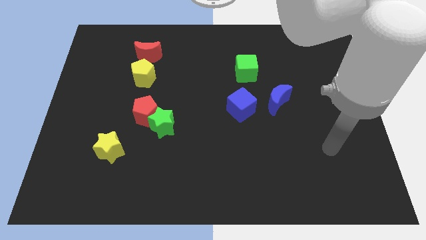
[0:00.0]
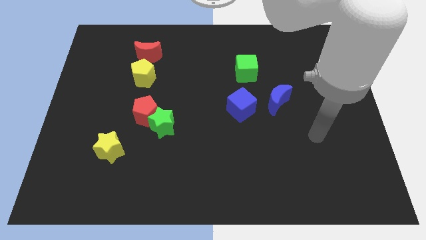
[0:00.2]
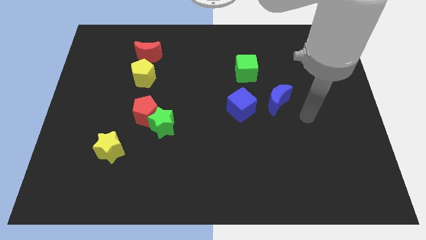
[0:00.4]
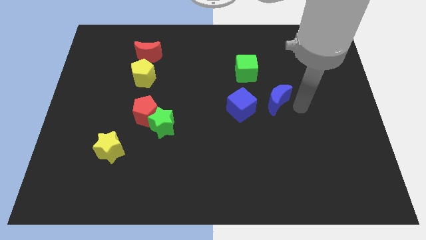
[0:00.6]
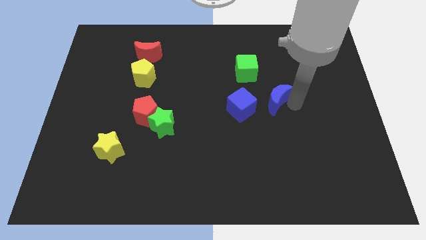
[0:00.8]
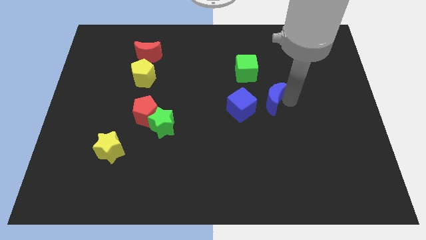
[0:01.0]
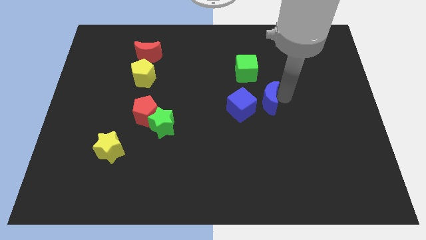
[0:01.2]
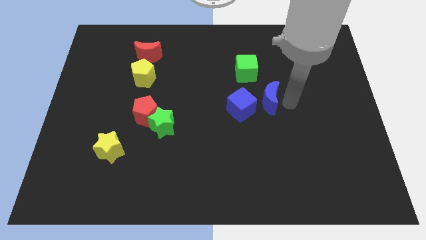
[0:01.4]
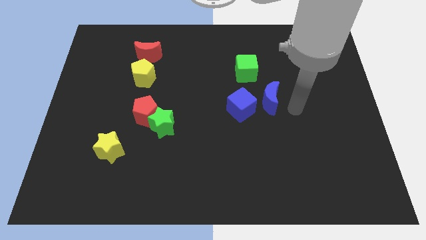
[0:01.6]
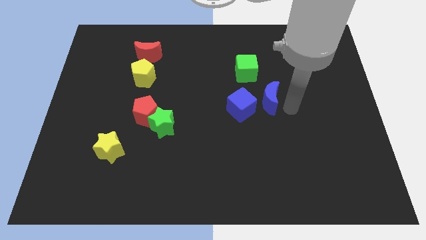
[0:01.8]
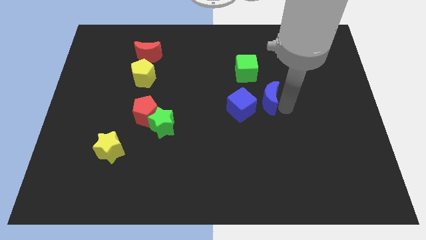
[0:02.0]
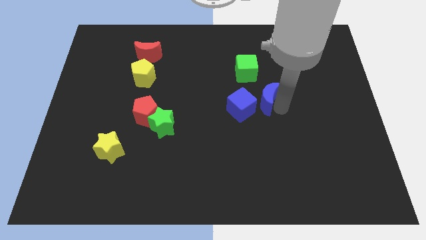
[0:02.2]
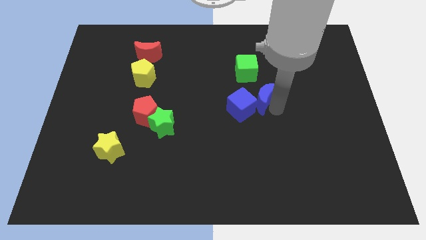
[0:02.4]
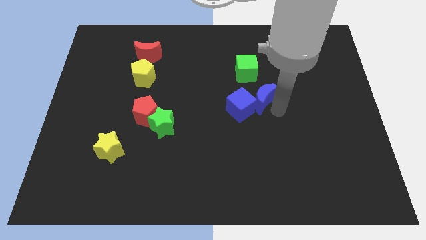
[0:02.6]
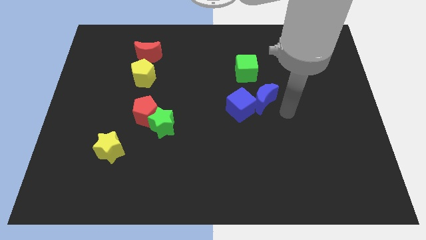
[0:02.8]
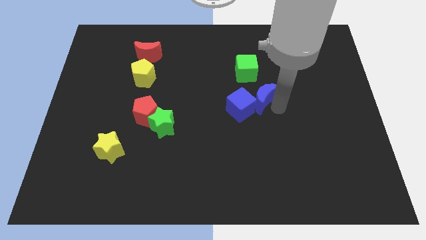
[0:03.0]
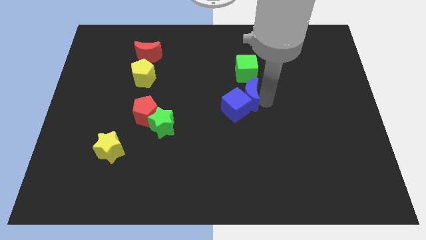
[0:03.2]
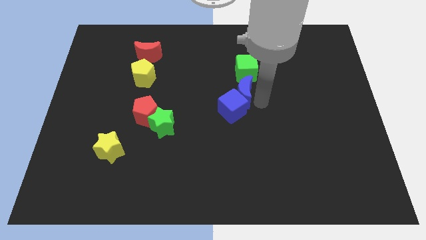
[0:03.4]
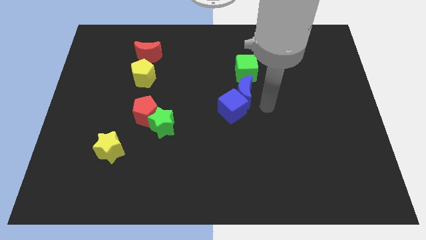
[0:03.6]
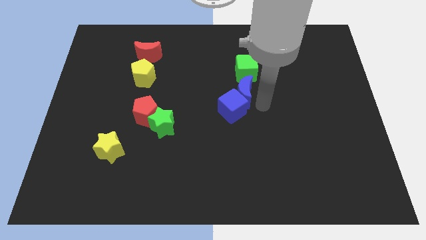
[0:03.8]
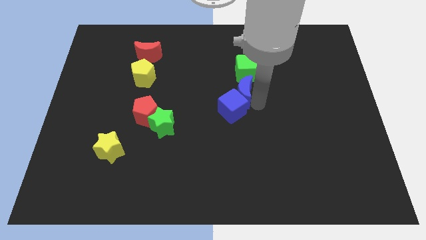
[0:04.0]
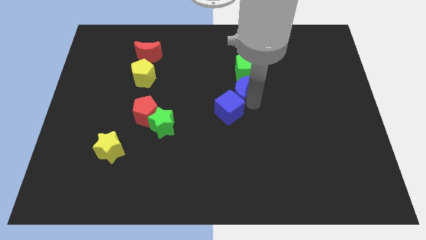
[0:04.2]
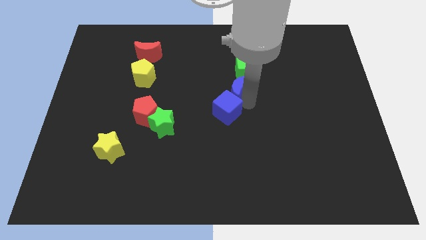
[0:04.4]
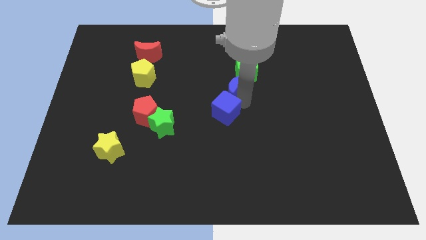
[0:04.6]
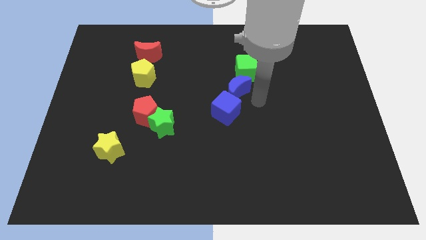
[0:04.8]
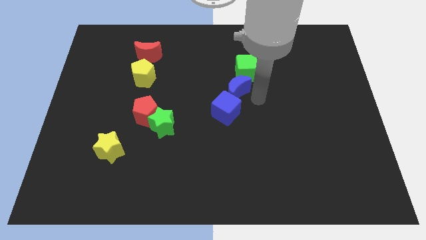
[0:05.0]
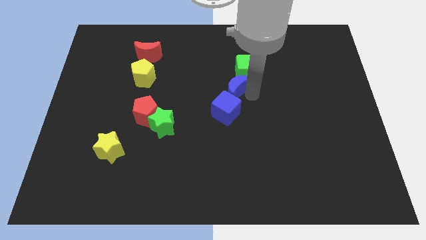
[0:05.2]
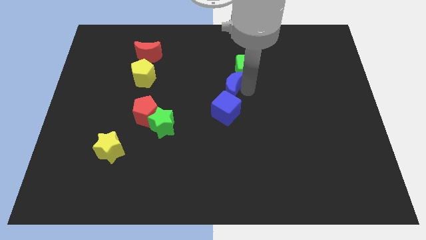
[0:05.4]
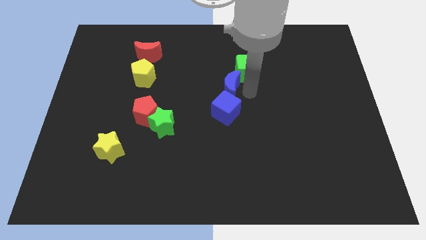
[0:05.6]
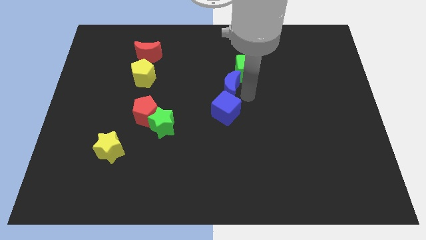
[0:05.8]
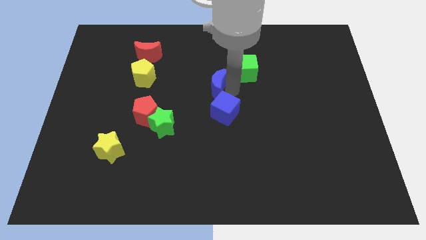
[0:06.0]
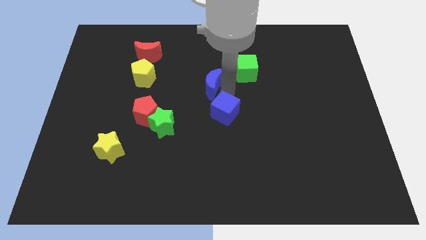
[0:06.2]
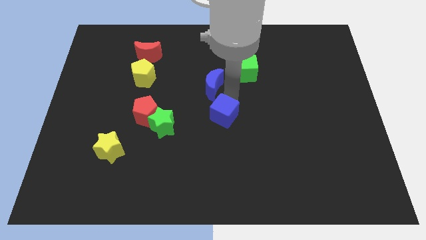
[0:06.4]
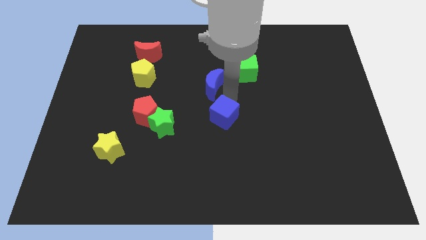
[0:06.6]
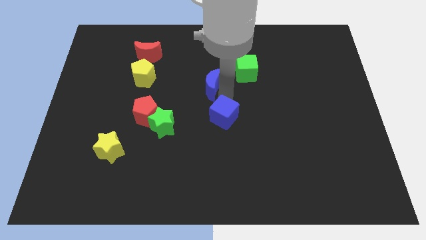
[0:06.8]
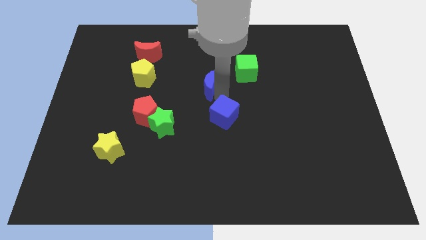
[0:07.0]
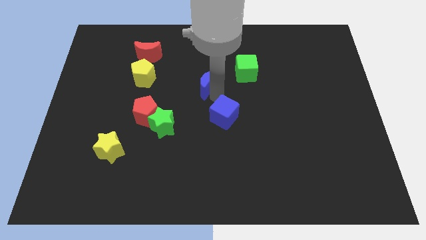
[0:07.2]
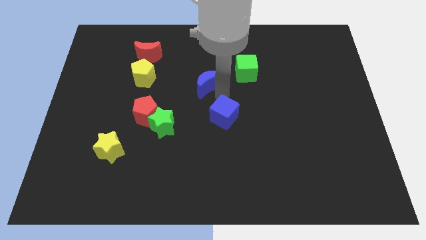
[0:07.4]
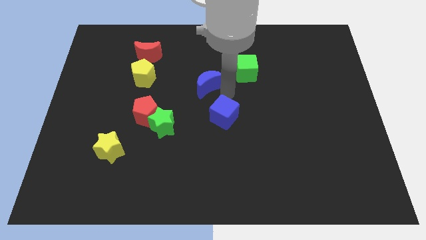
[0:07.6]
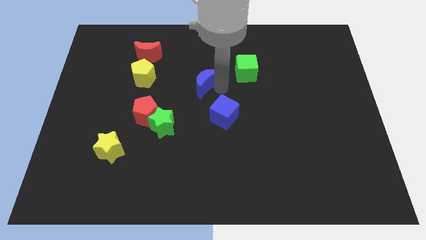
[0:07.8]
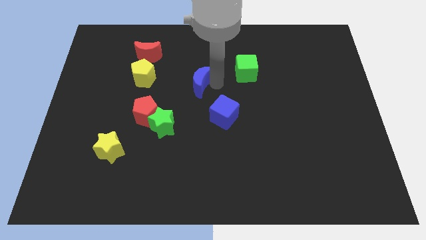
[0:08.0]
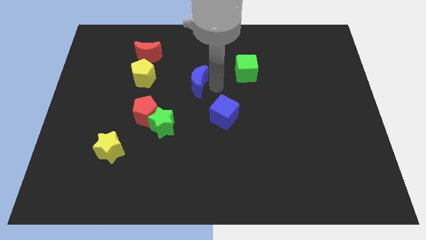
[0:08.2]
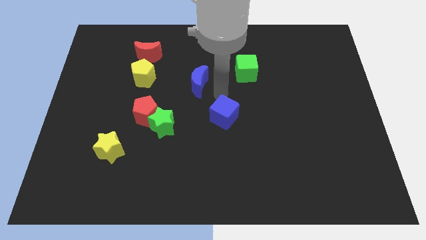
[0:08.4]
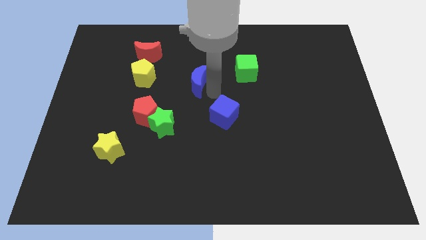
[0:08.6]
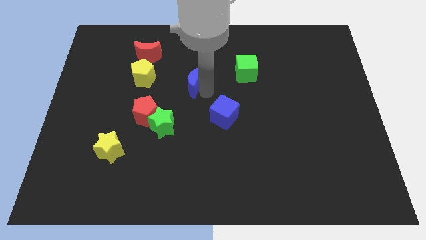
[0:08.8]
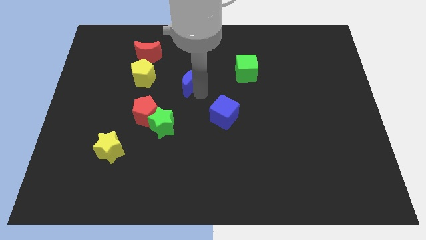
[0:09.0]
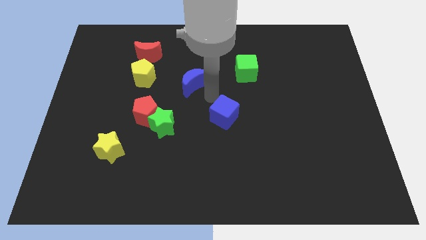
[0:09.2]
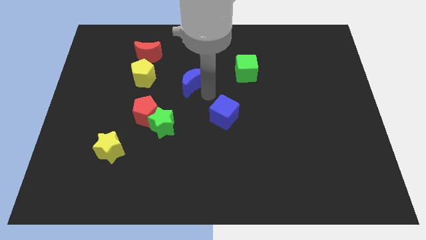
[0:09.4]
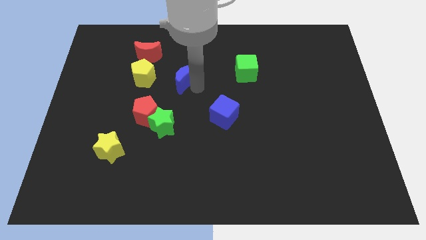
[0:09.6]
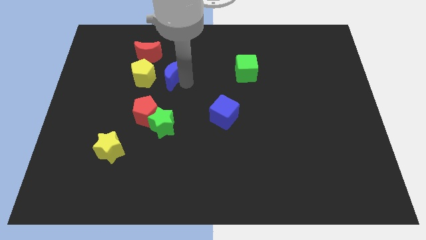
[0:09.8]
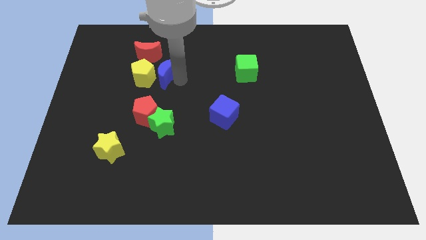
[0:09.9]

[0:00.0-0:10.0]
slide the blue moon to the top of the red pentagon
